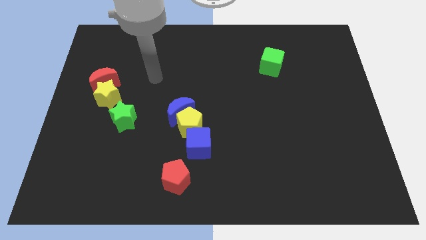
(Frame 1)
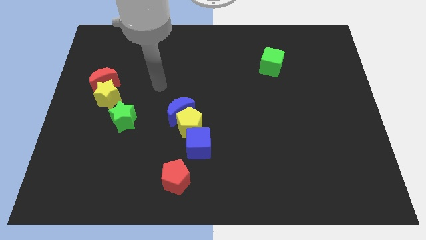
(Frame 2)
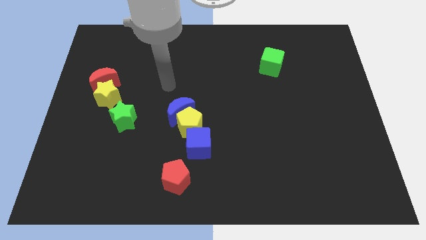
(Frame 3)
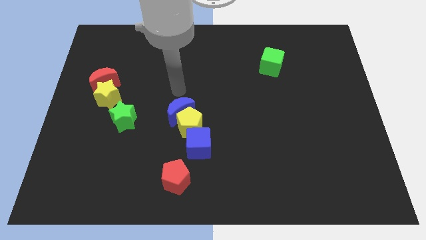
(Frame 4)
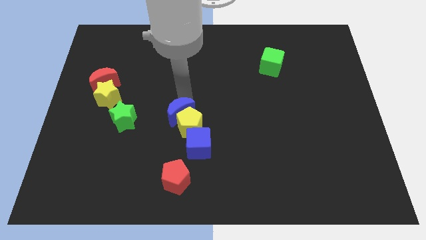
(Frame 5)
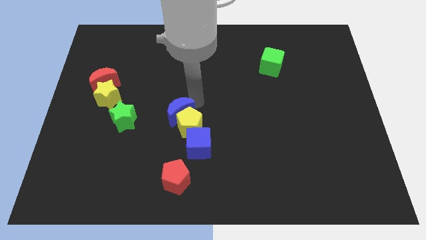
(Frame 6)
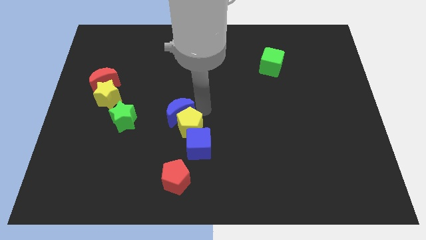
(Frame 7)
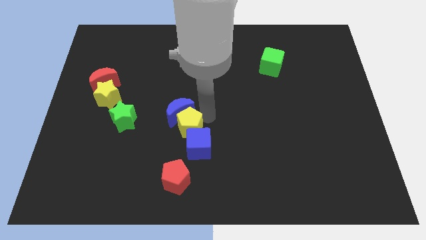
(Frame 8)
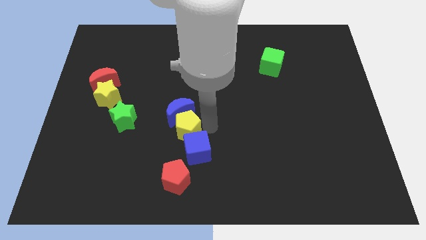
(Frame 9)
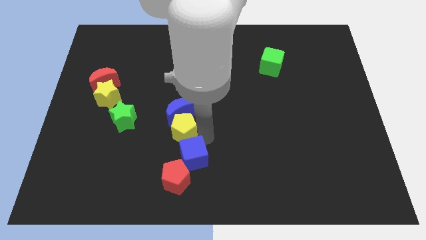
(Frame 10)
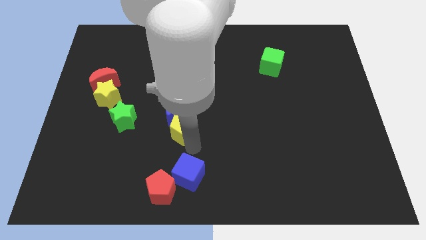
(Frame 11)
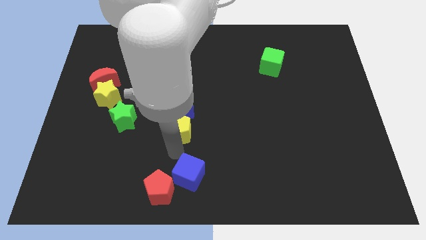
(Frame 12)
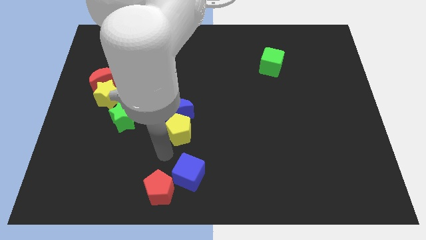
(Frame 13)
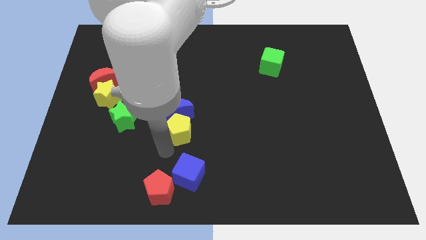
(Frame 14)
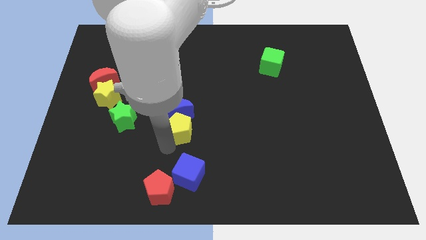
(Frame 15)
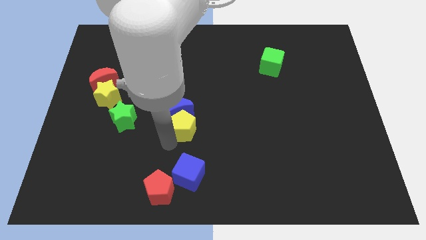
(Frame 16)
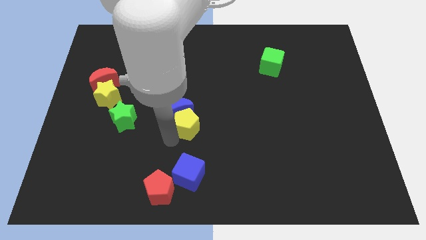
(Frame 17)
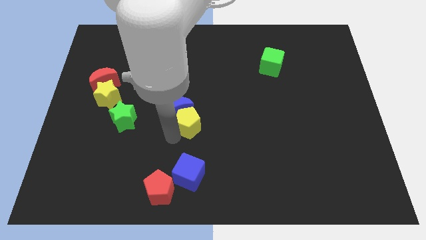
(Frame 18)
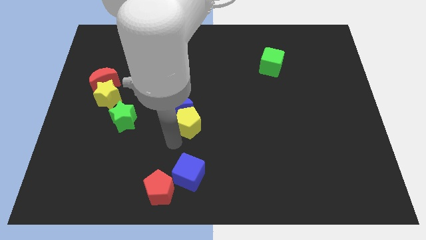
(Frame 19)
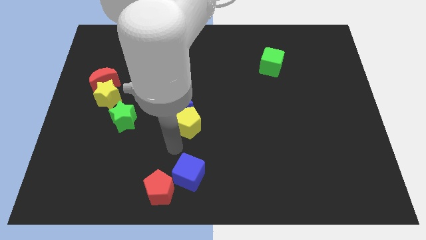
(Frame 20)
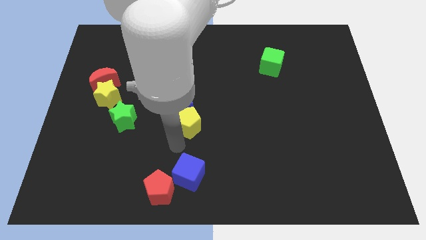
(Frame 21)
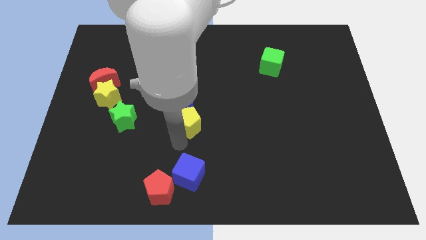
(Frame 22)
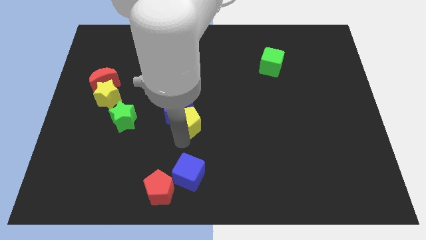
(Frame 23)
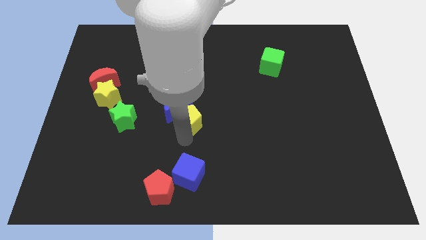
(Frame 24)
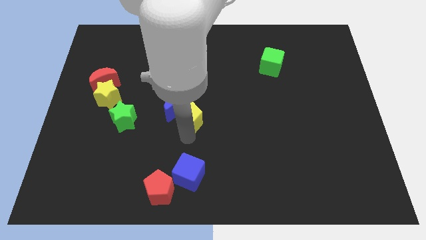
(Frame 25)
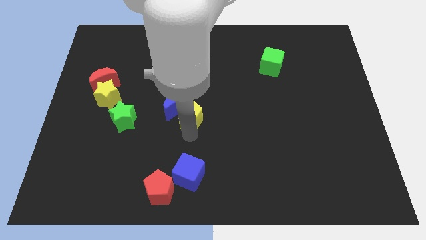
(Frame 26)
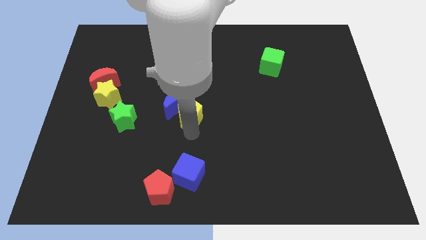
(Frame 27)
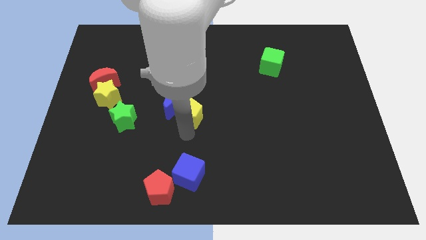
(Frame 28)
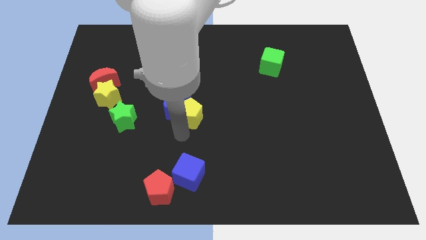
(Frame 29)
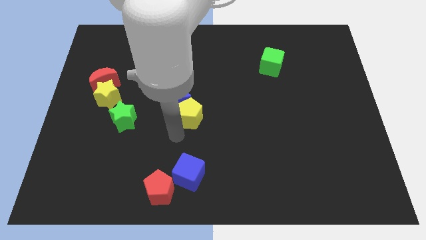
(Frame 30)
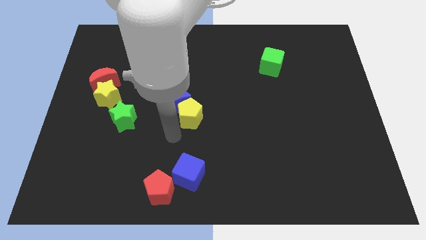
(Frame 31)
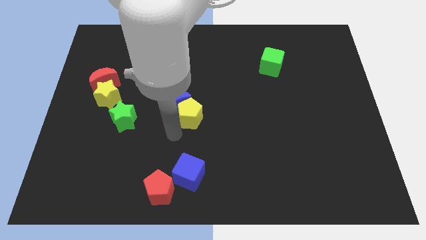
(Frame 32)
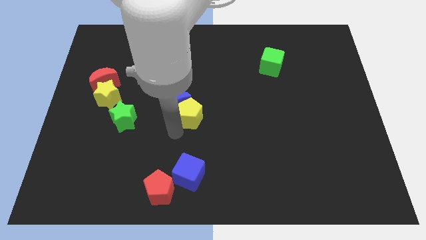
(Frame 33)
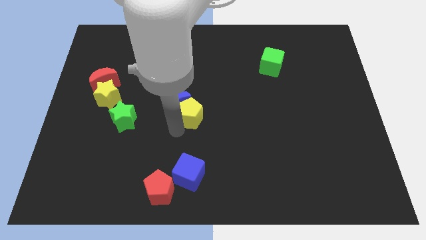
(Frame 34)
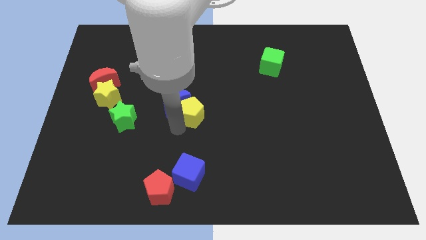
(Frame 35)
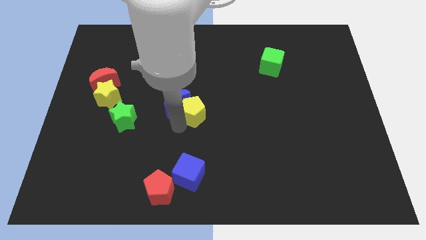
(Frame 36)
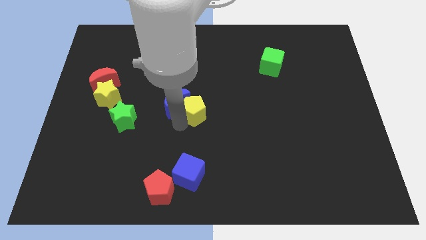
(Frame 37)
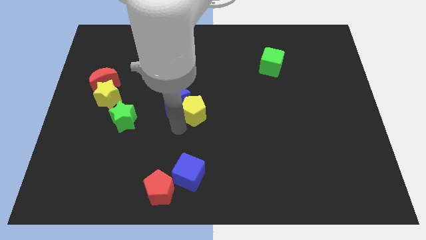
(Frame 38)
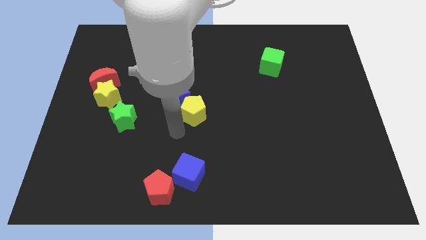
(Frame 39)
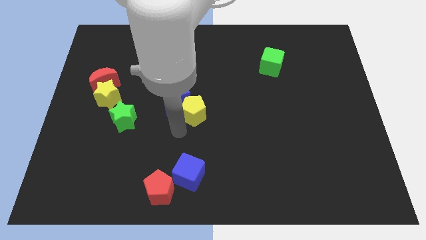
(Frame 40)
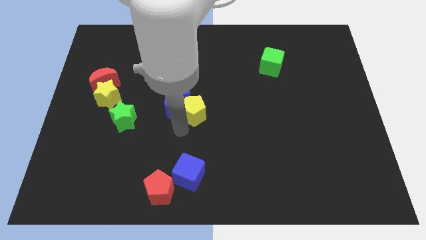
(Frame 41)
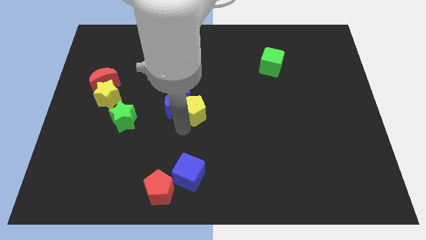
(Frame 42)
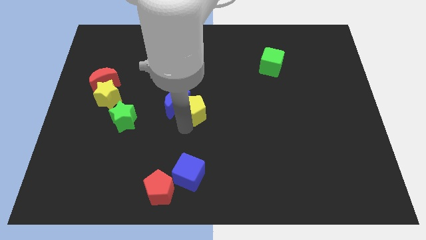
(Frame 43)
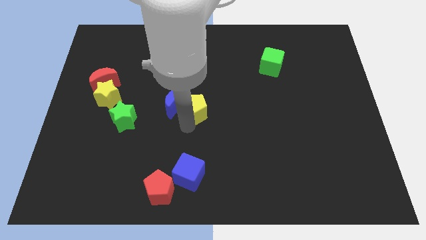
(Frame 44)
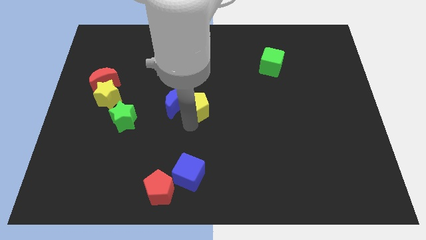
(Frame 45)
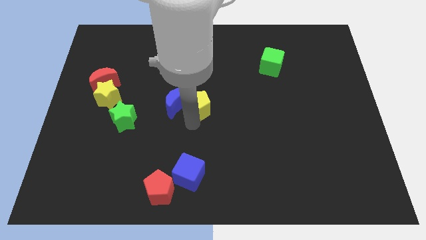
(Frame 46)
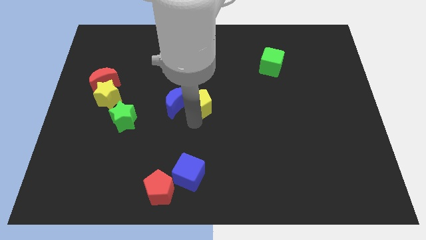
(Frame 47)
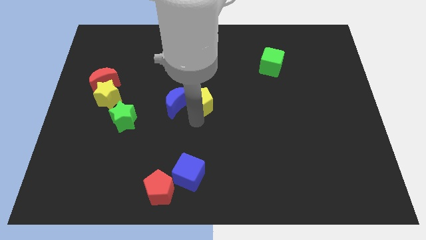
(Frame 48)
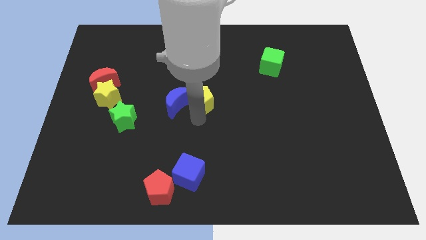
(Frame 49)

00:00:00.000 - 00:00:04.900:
pull the yellow pentagon apart from the blue moon and blue cube

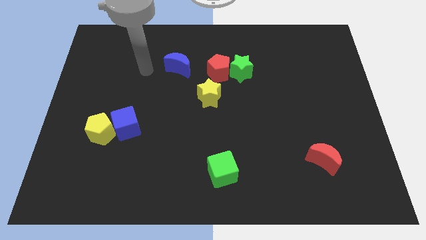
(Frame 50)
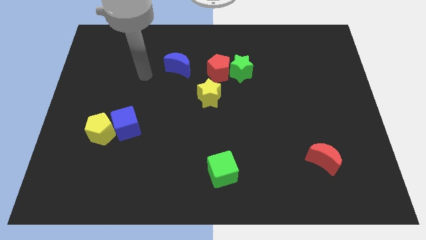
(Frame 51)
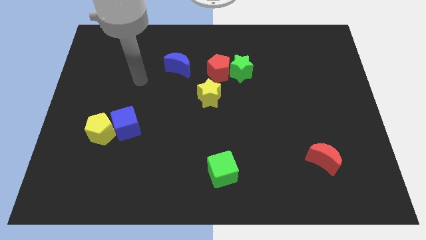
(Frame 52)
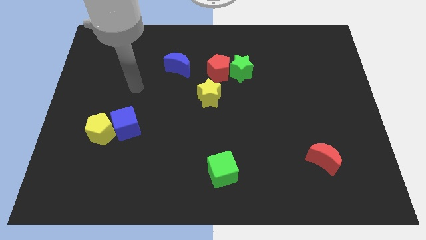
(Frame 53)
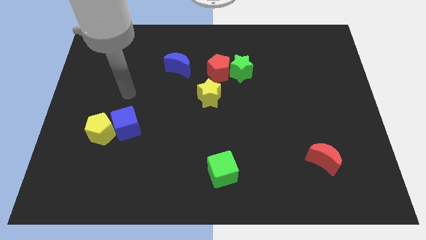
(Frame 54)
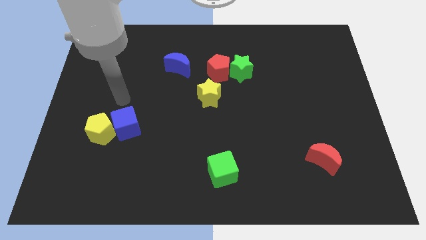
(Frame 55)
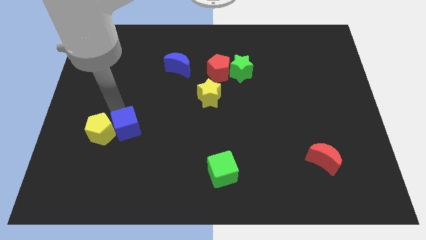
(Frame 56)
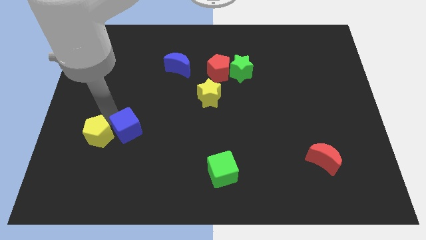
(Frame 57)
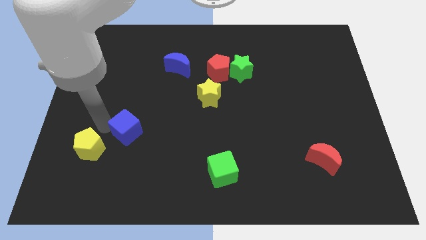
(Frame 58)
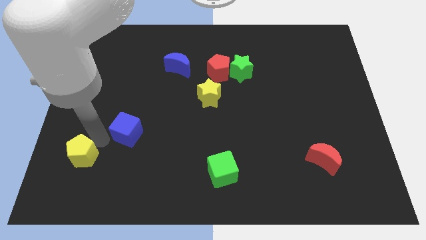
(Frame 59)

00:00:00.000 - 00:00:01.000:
separate the blue cube from the yellow pentagon

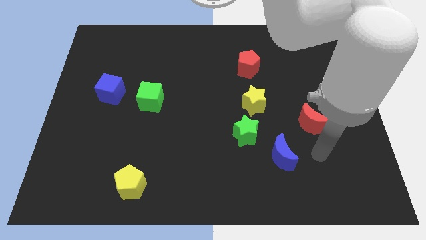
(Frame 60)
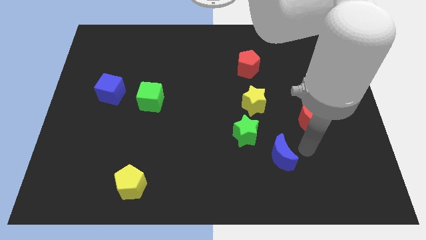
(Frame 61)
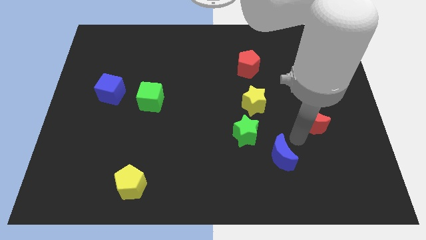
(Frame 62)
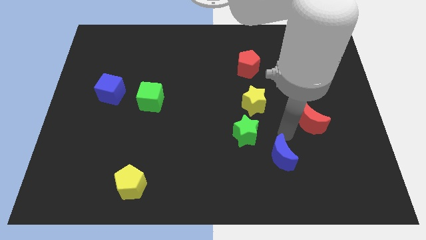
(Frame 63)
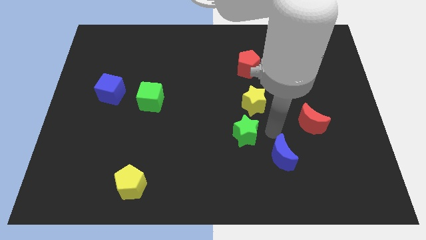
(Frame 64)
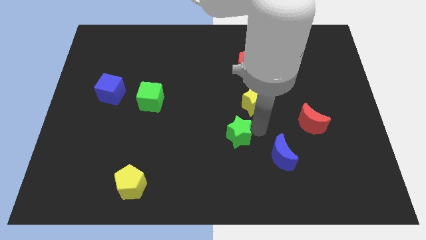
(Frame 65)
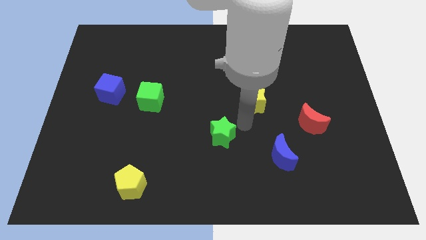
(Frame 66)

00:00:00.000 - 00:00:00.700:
separate the yellow star from the green star

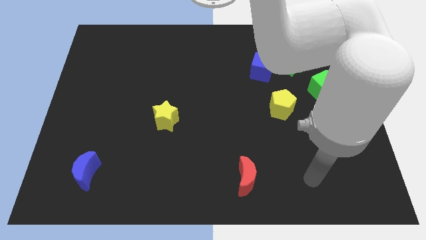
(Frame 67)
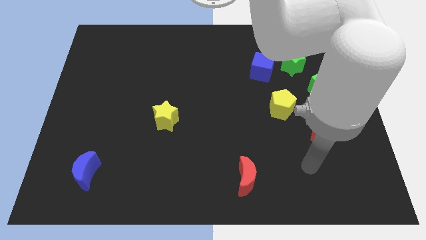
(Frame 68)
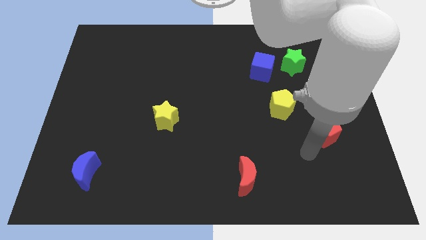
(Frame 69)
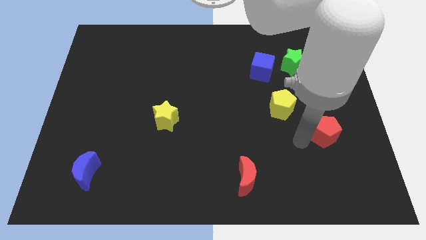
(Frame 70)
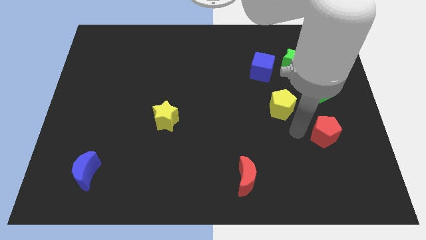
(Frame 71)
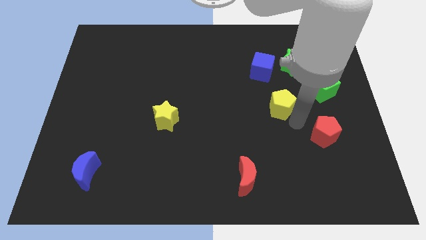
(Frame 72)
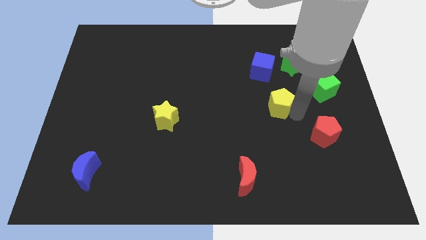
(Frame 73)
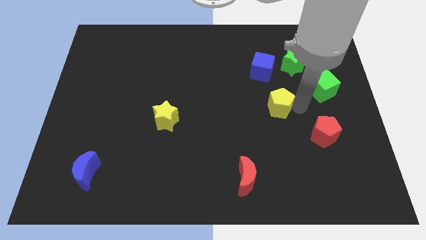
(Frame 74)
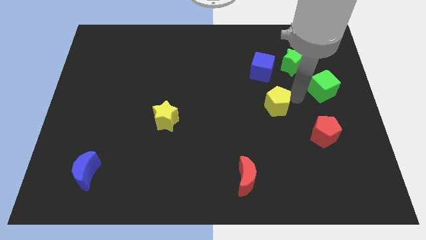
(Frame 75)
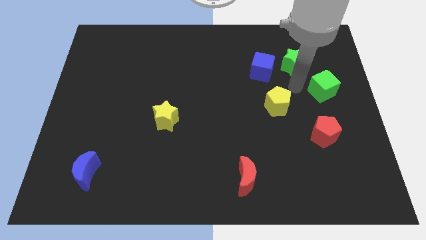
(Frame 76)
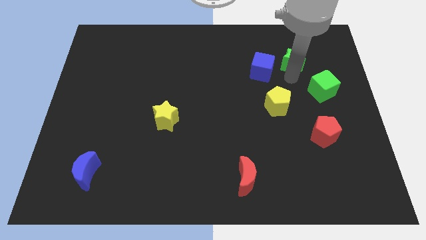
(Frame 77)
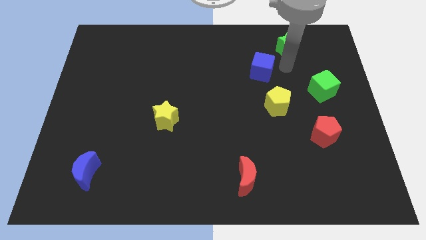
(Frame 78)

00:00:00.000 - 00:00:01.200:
move the blue cube away from the green star

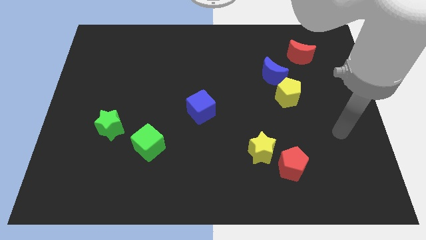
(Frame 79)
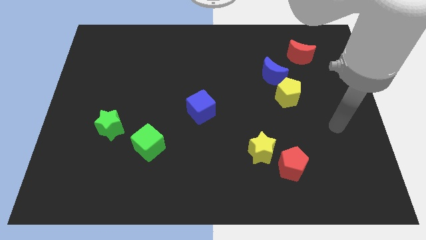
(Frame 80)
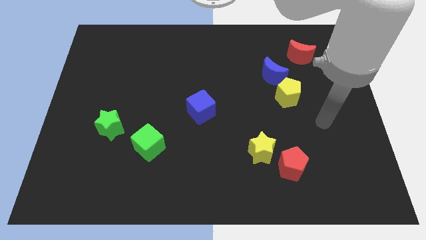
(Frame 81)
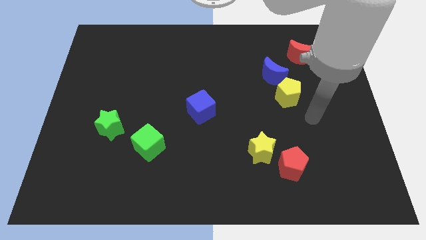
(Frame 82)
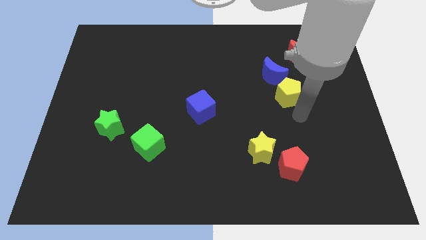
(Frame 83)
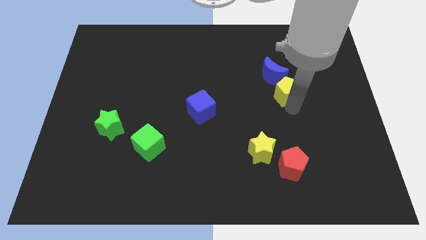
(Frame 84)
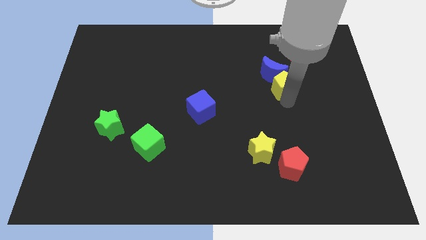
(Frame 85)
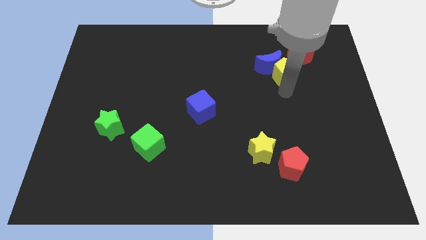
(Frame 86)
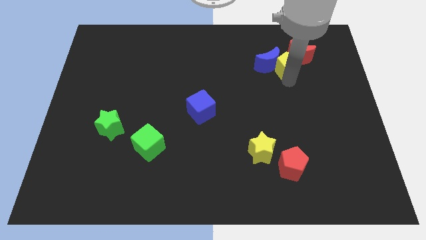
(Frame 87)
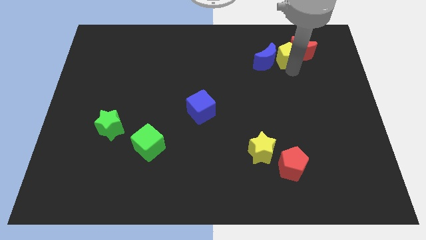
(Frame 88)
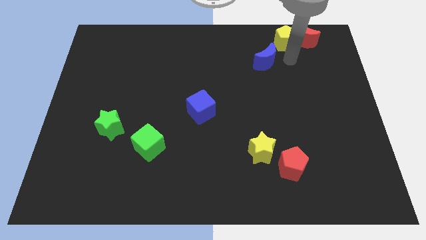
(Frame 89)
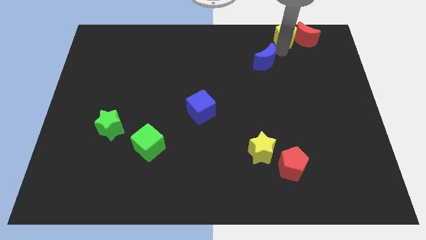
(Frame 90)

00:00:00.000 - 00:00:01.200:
move the blue moon away from the yellow pentagon

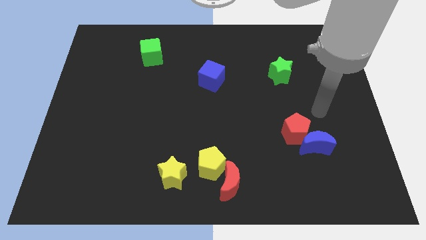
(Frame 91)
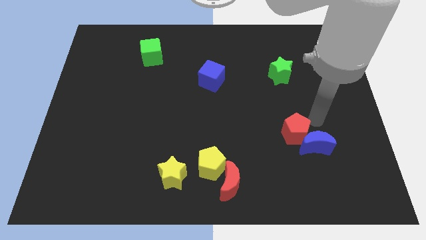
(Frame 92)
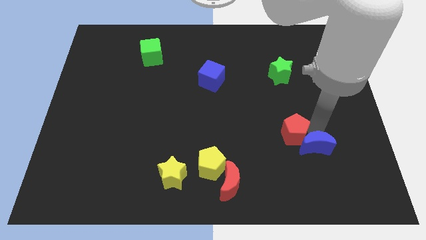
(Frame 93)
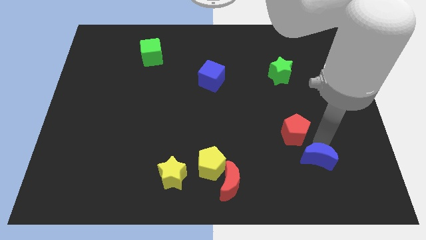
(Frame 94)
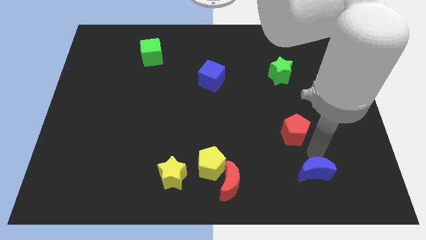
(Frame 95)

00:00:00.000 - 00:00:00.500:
separate the red pentagon from the blue moon
